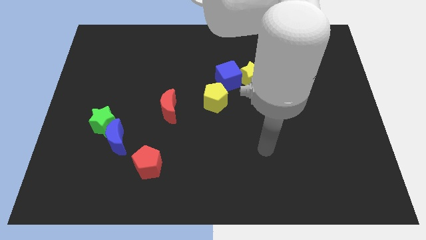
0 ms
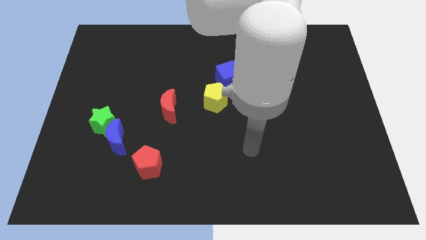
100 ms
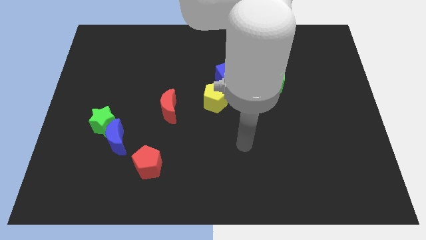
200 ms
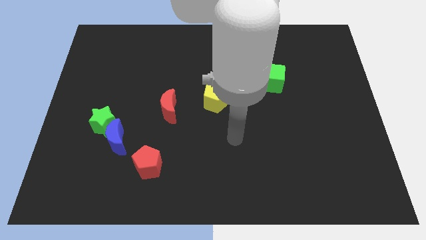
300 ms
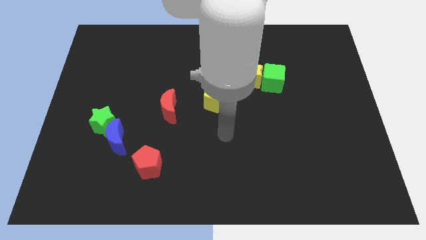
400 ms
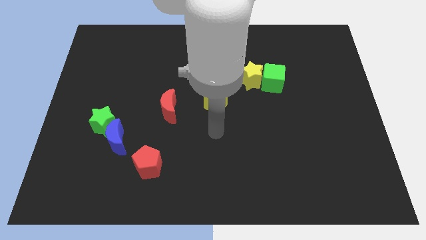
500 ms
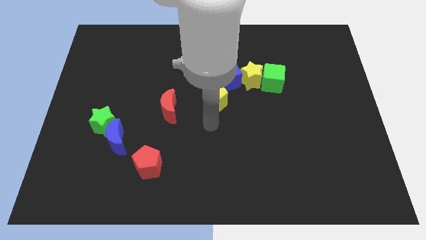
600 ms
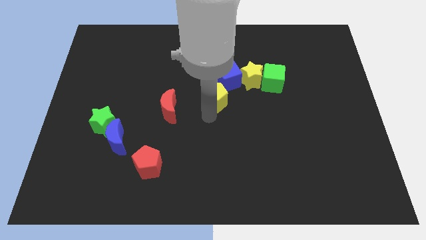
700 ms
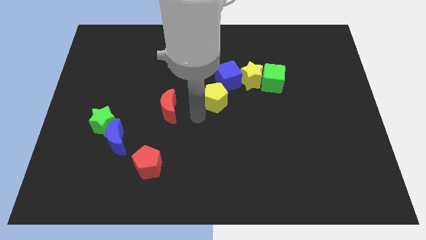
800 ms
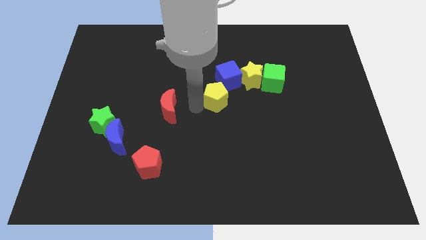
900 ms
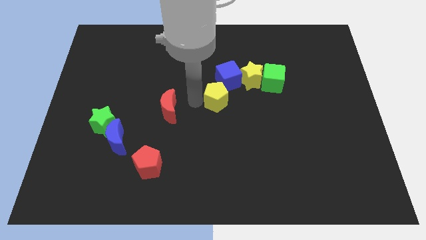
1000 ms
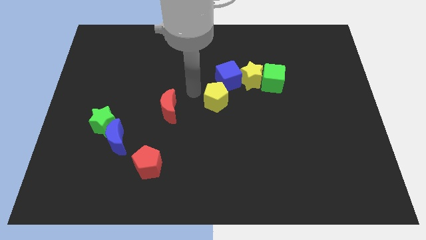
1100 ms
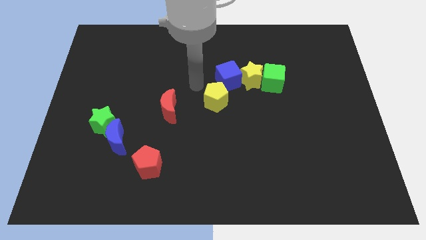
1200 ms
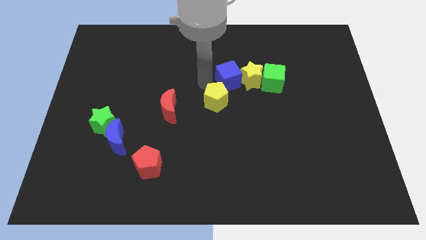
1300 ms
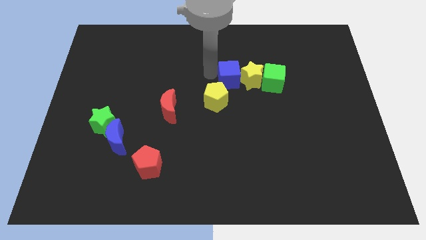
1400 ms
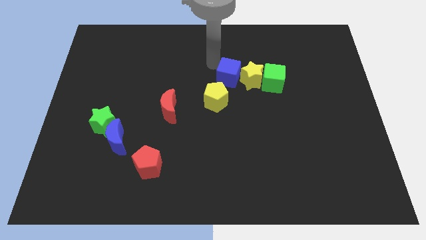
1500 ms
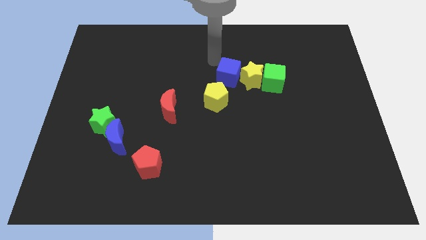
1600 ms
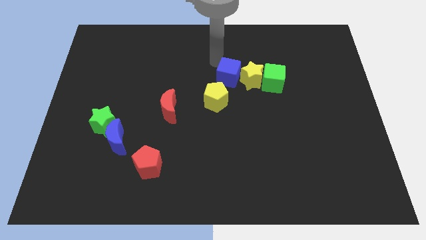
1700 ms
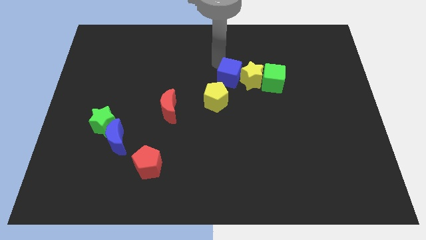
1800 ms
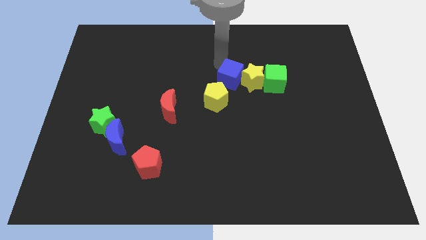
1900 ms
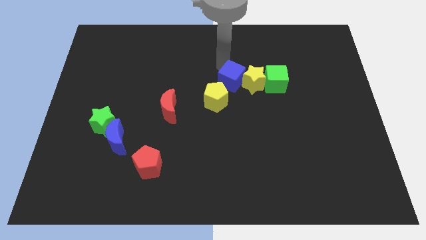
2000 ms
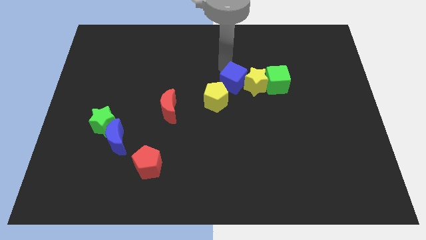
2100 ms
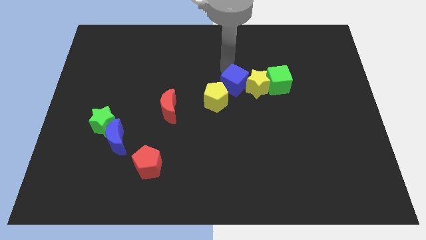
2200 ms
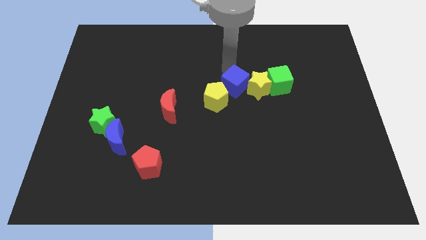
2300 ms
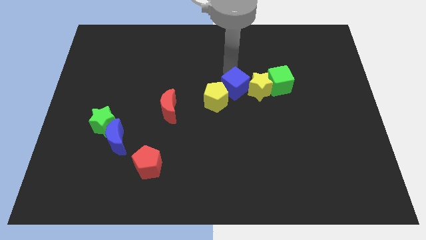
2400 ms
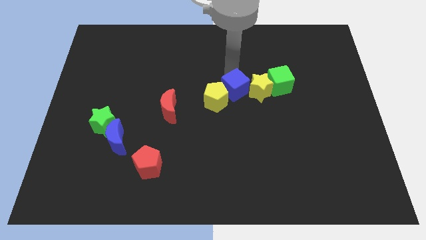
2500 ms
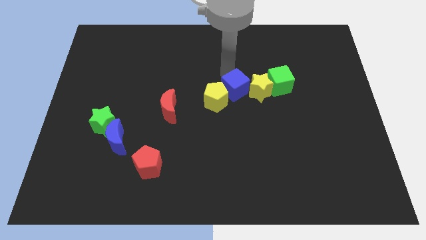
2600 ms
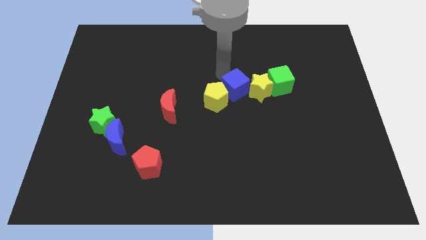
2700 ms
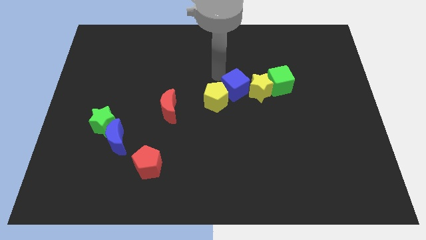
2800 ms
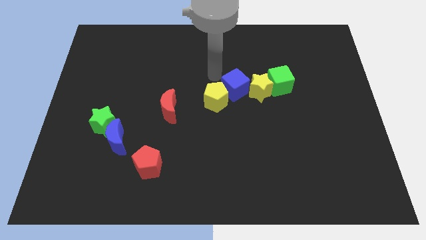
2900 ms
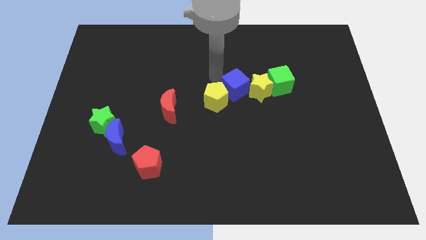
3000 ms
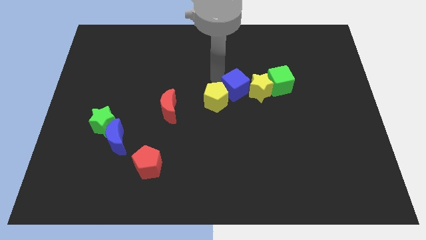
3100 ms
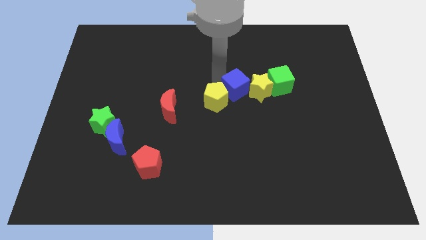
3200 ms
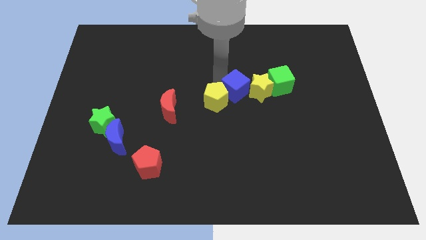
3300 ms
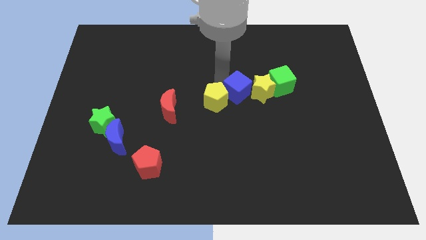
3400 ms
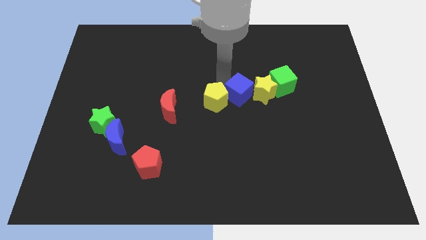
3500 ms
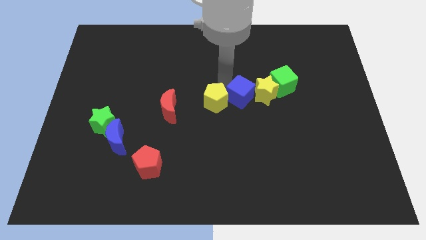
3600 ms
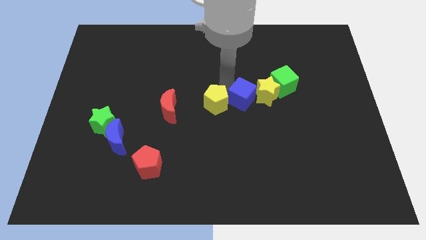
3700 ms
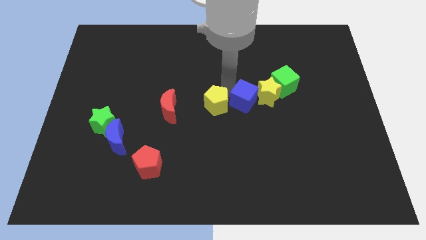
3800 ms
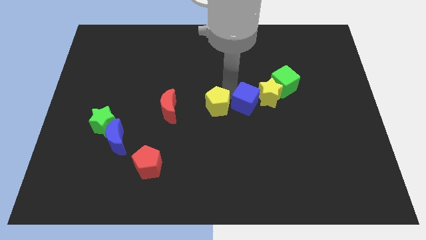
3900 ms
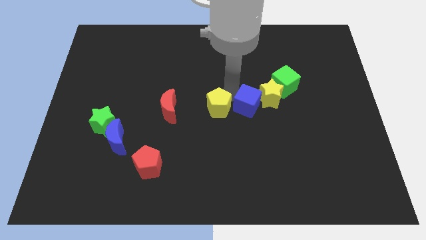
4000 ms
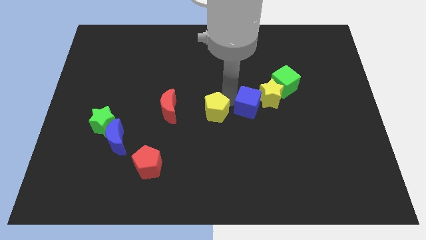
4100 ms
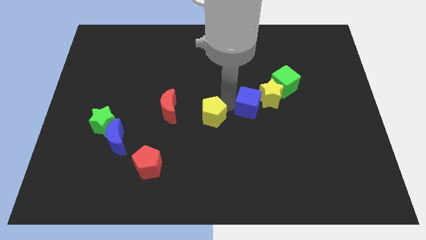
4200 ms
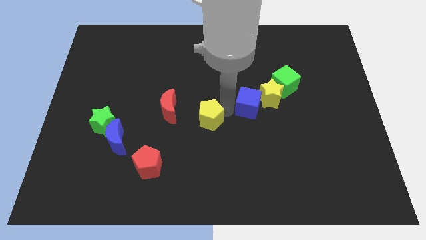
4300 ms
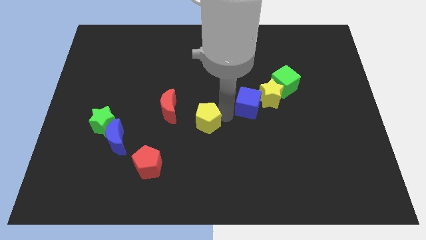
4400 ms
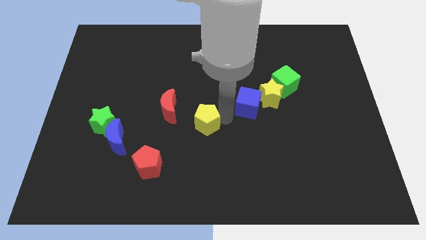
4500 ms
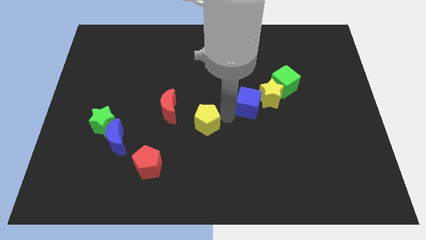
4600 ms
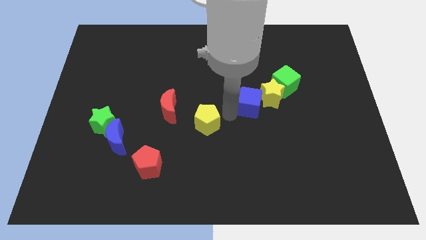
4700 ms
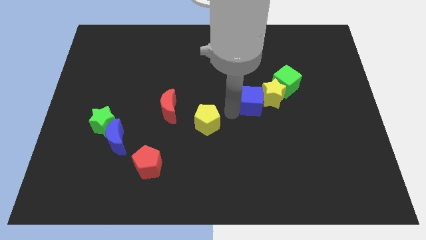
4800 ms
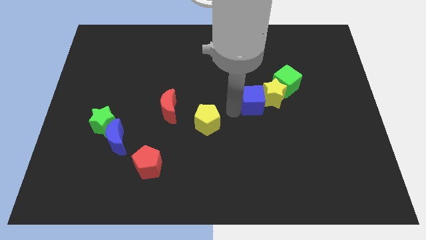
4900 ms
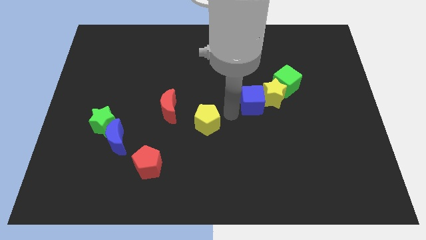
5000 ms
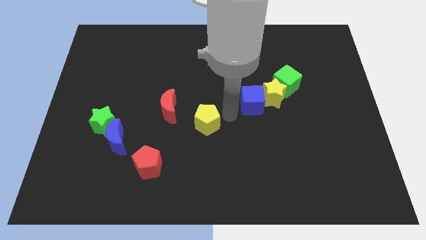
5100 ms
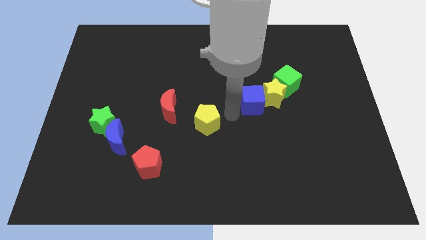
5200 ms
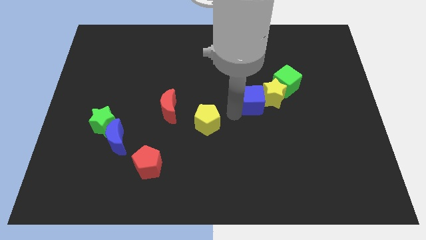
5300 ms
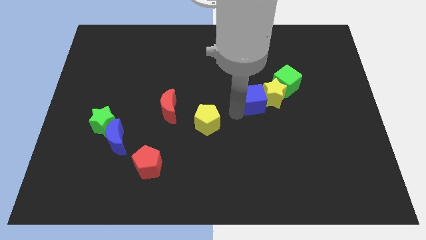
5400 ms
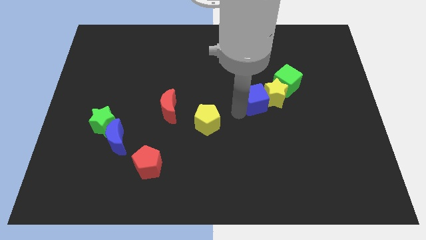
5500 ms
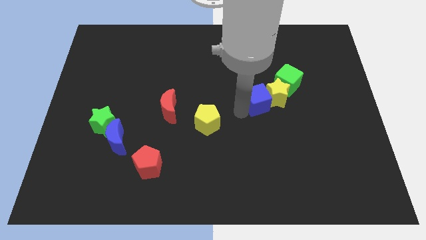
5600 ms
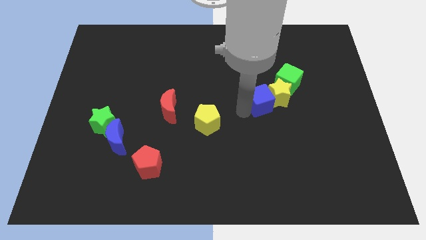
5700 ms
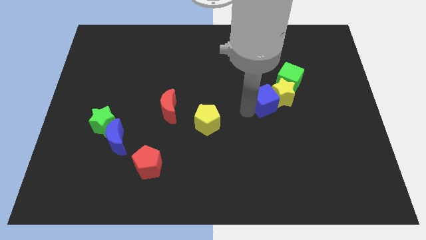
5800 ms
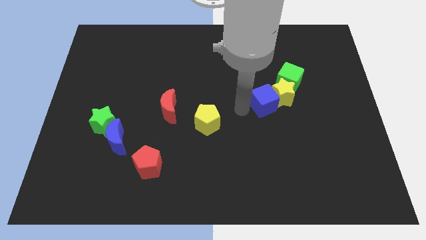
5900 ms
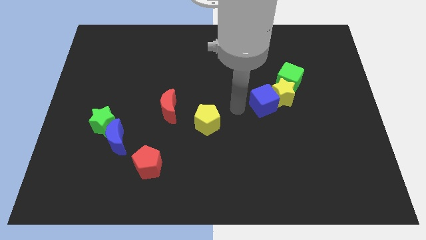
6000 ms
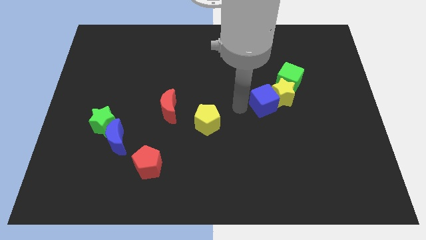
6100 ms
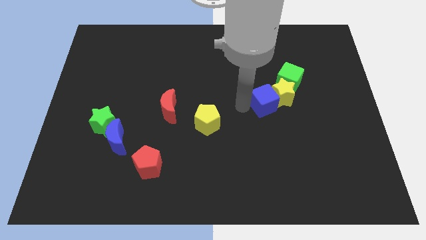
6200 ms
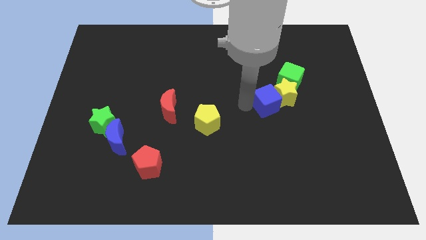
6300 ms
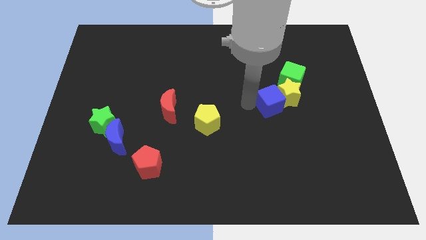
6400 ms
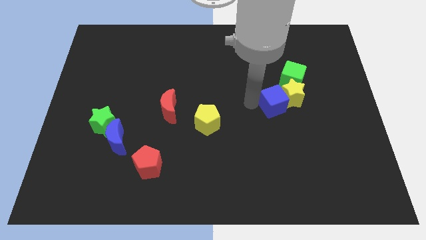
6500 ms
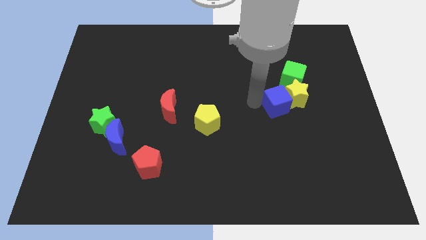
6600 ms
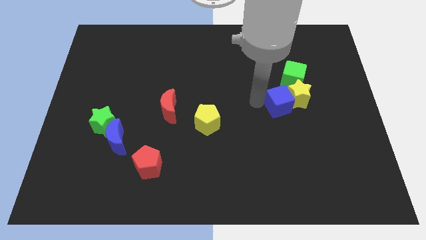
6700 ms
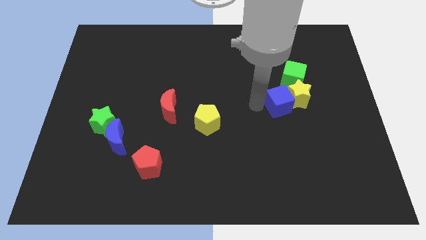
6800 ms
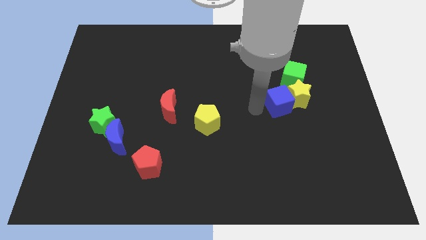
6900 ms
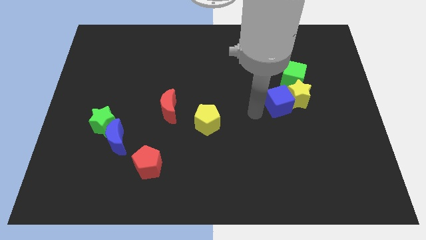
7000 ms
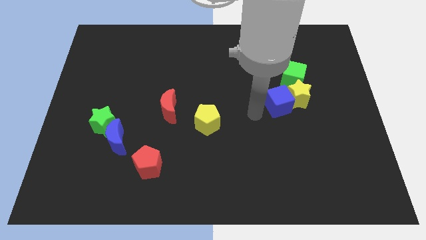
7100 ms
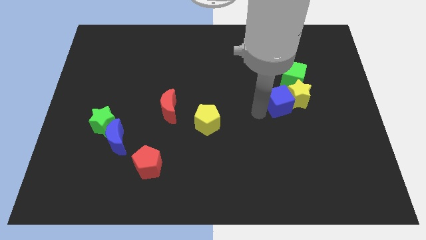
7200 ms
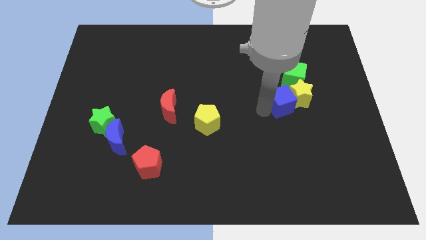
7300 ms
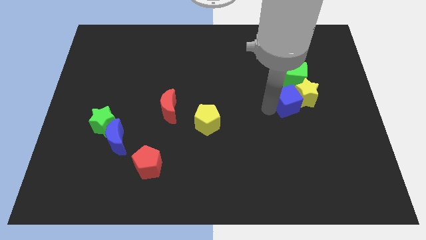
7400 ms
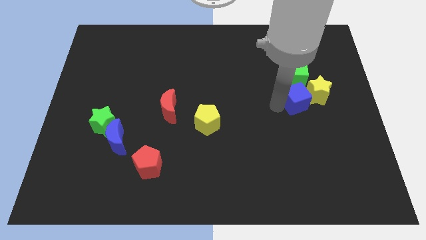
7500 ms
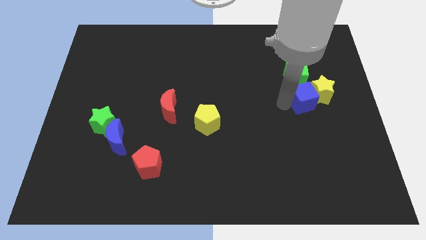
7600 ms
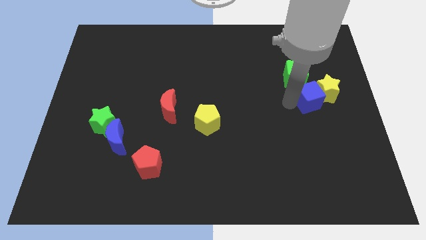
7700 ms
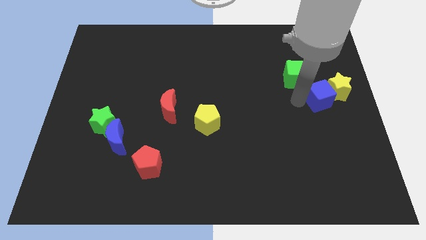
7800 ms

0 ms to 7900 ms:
move the blue cube to the center right

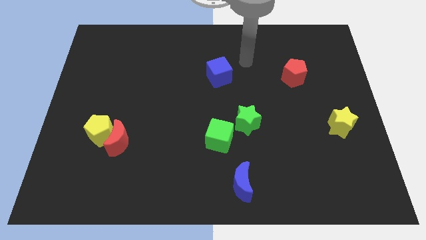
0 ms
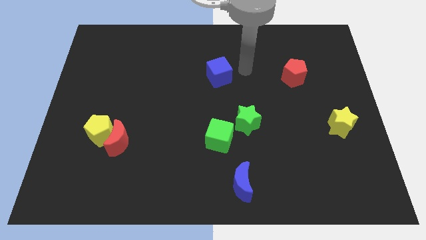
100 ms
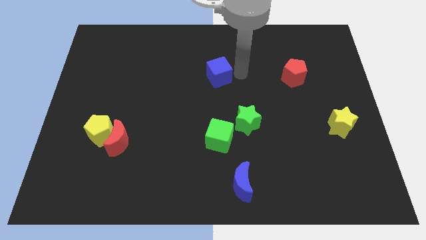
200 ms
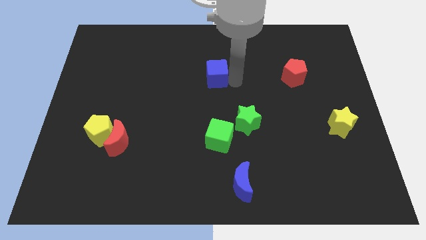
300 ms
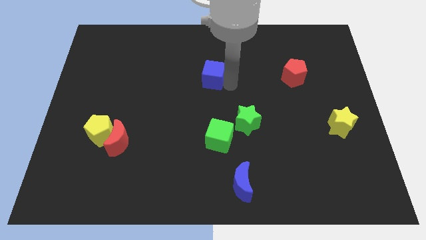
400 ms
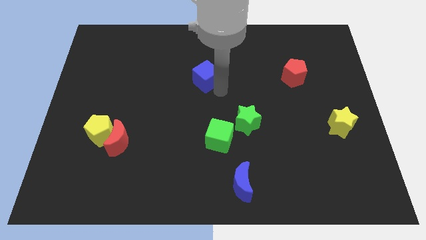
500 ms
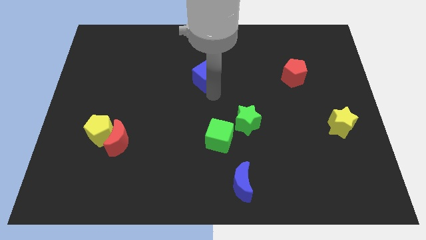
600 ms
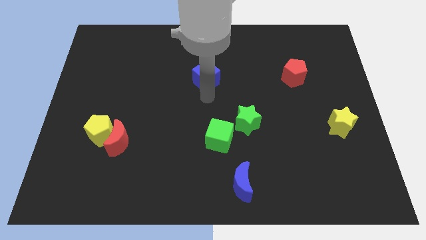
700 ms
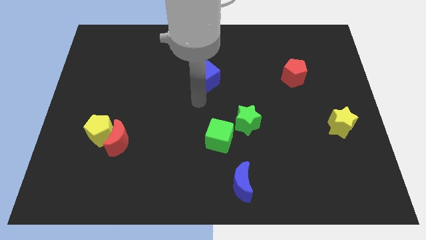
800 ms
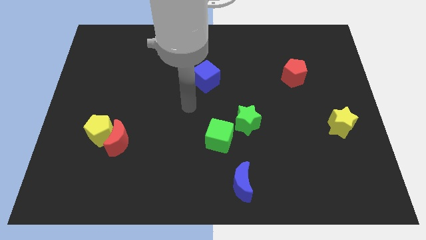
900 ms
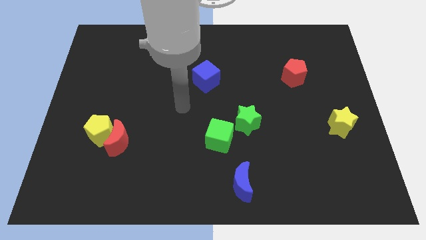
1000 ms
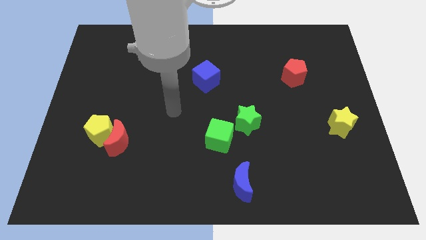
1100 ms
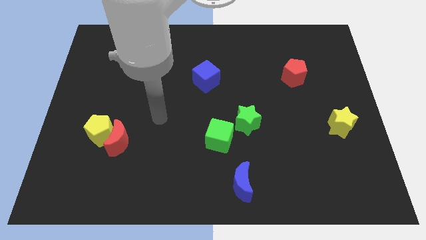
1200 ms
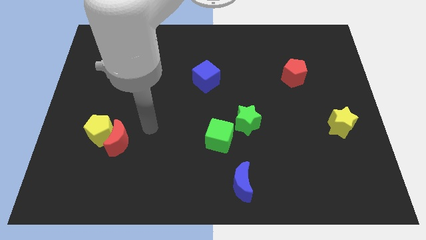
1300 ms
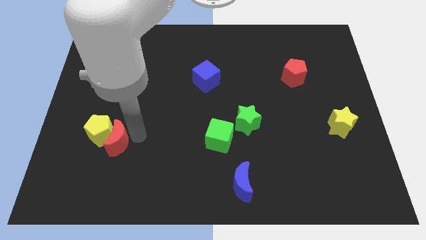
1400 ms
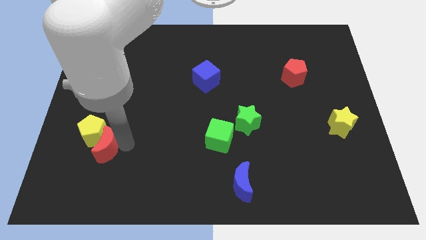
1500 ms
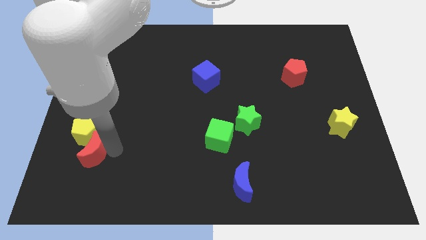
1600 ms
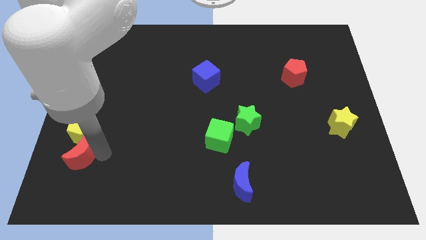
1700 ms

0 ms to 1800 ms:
push the yellow pentagon to the left side of the board
